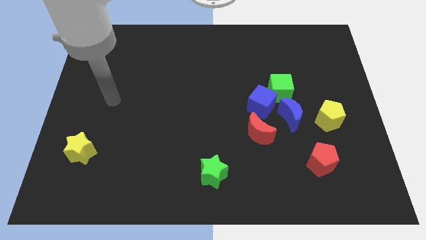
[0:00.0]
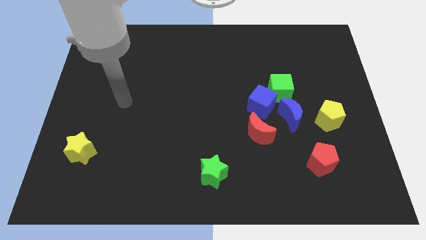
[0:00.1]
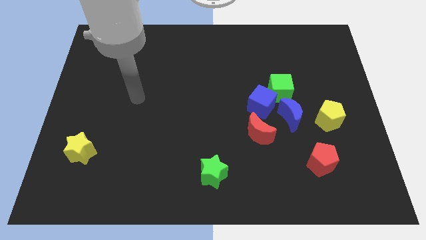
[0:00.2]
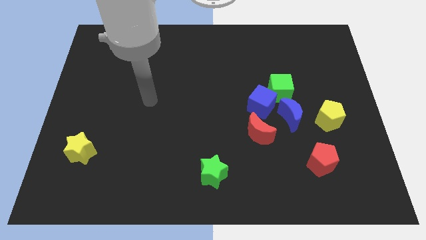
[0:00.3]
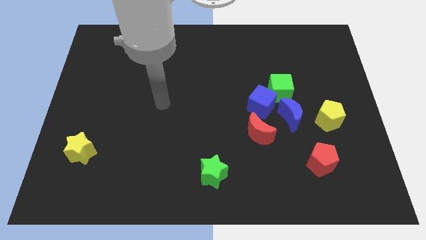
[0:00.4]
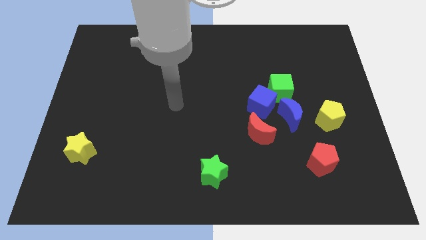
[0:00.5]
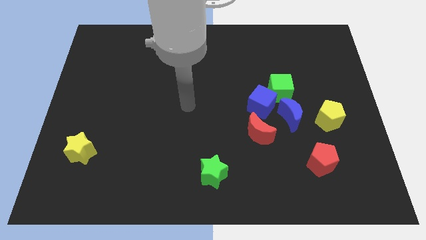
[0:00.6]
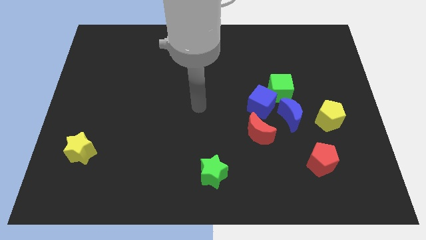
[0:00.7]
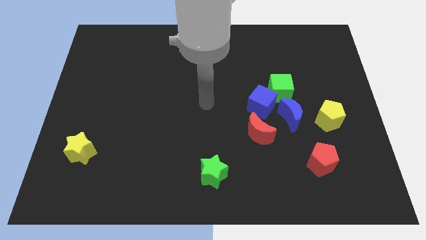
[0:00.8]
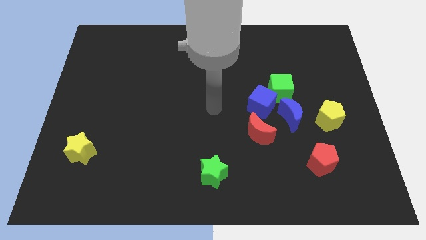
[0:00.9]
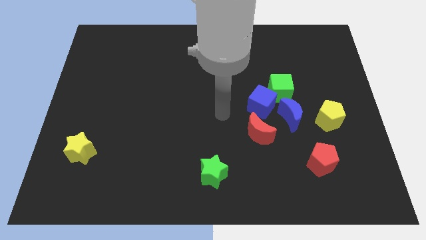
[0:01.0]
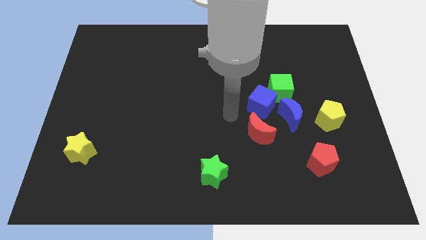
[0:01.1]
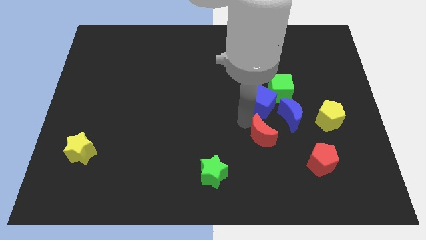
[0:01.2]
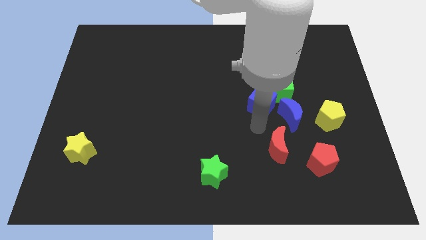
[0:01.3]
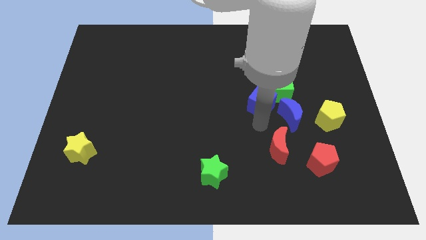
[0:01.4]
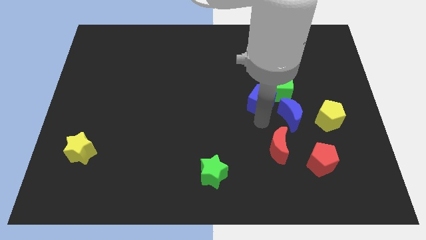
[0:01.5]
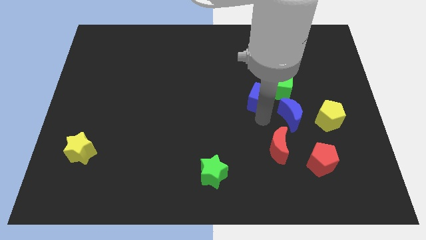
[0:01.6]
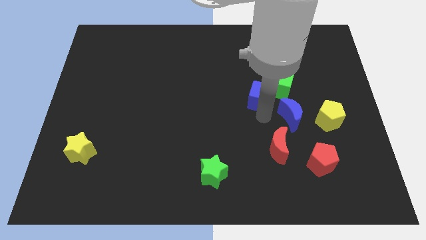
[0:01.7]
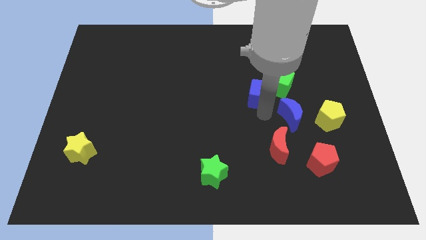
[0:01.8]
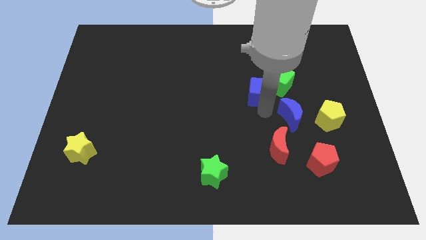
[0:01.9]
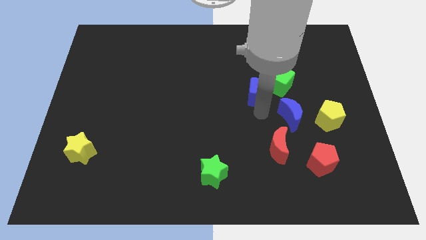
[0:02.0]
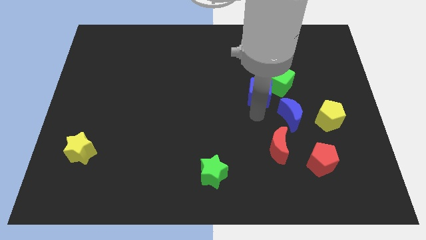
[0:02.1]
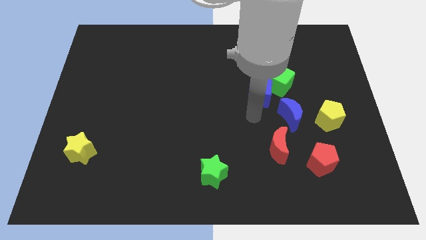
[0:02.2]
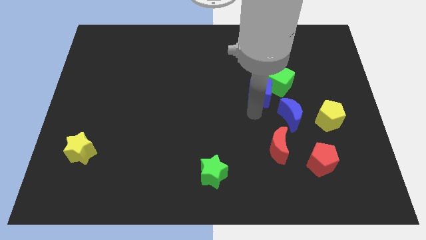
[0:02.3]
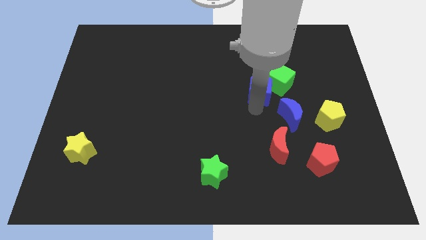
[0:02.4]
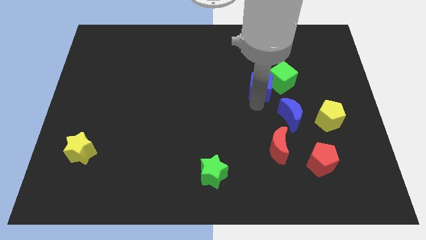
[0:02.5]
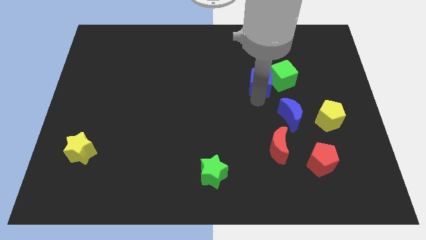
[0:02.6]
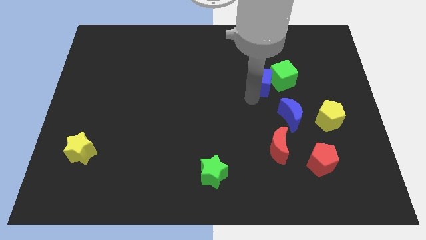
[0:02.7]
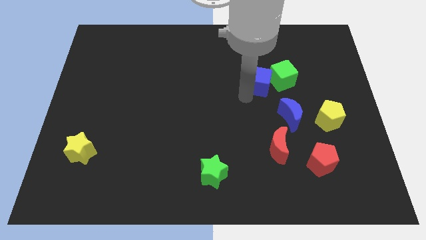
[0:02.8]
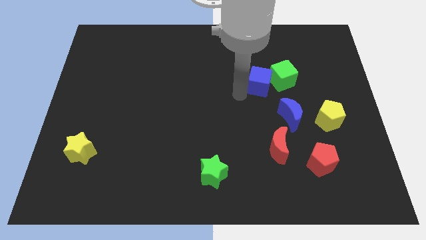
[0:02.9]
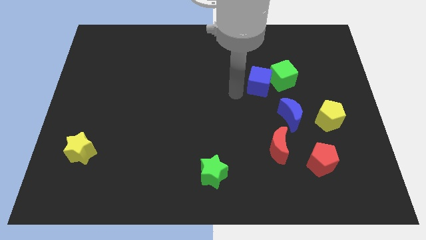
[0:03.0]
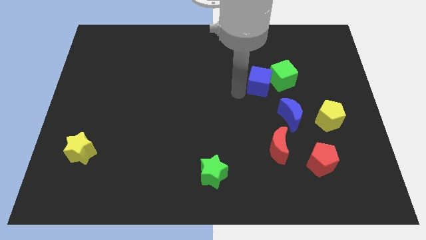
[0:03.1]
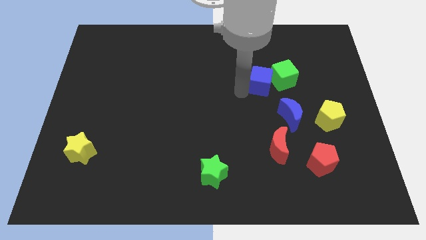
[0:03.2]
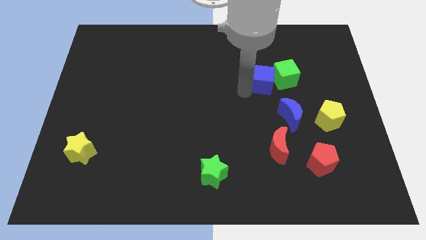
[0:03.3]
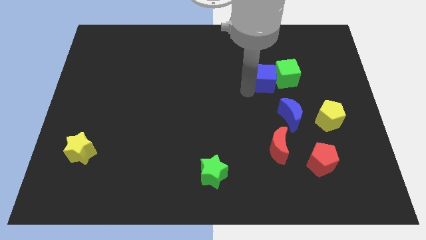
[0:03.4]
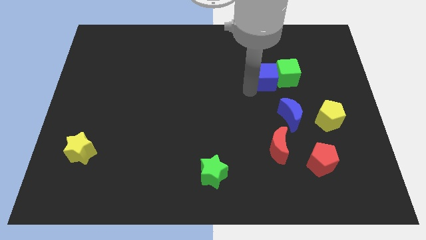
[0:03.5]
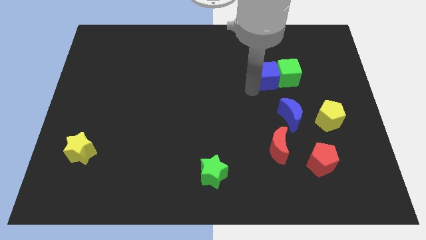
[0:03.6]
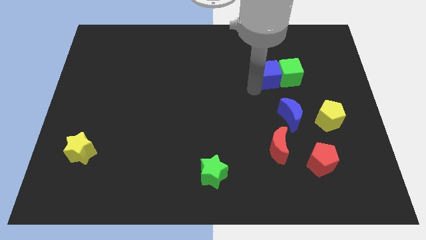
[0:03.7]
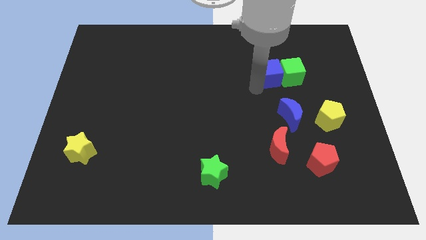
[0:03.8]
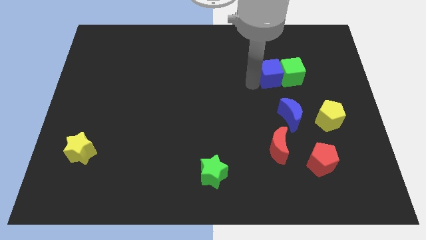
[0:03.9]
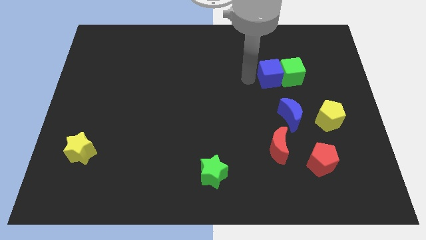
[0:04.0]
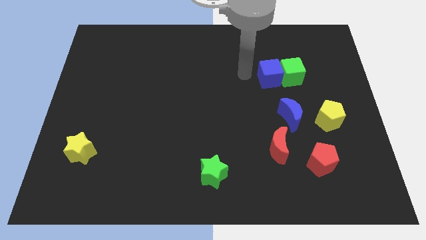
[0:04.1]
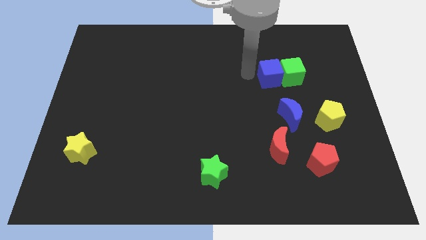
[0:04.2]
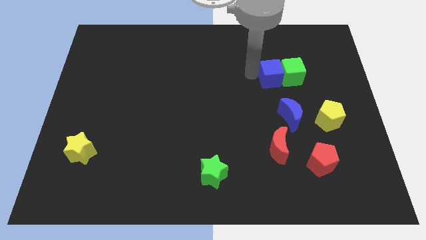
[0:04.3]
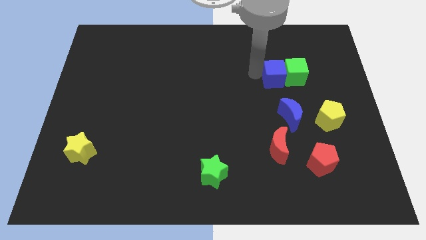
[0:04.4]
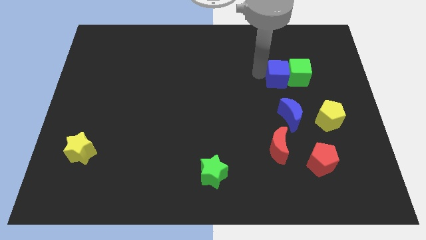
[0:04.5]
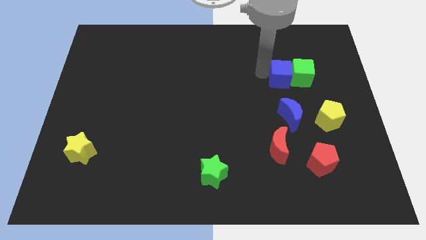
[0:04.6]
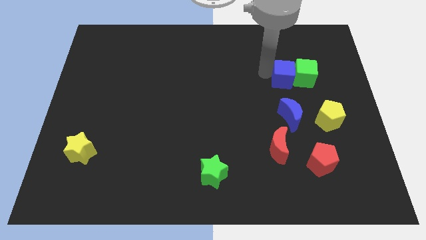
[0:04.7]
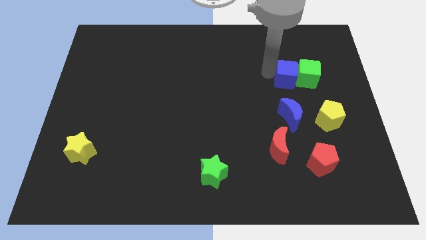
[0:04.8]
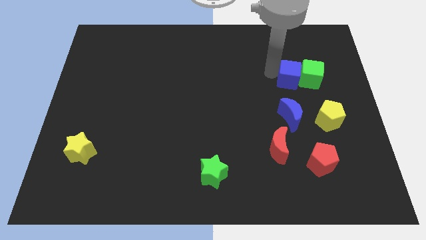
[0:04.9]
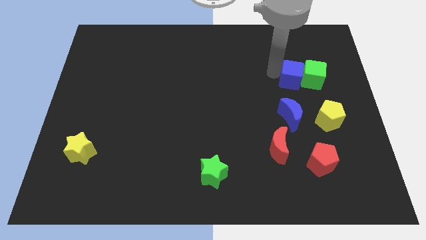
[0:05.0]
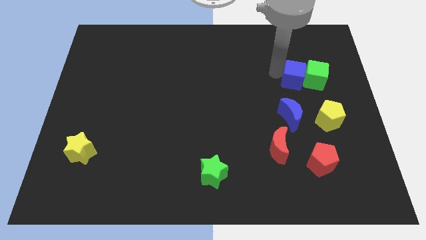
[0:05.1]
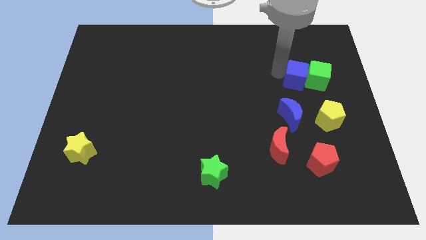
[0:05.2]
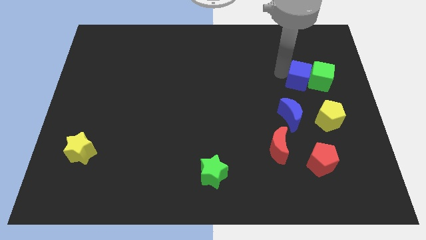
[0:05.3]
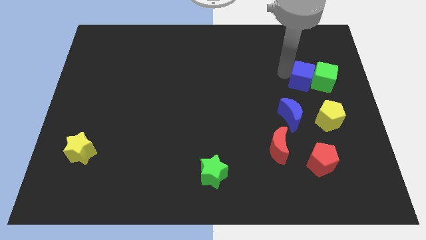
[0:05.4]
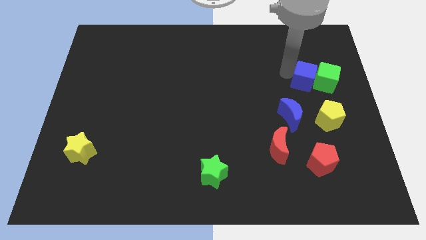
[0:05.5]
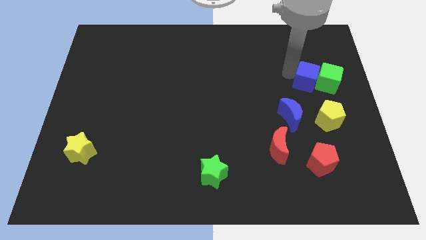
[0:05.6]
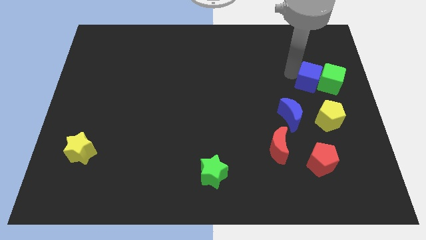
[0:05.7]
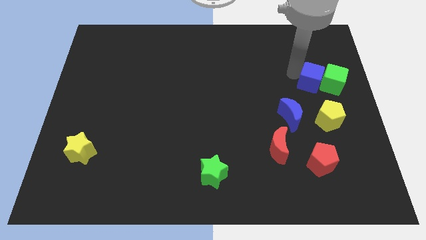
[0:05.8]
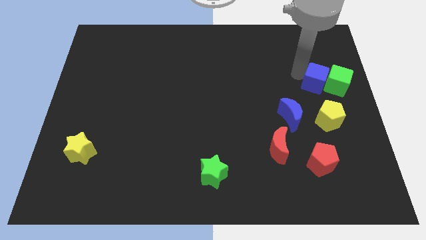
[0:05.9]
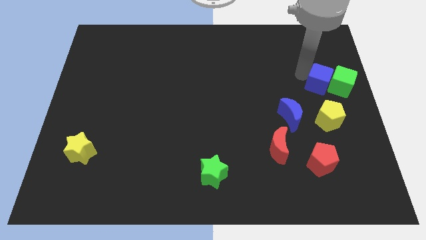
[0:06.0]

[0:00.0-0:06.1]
put the blue cube to the right side of the board

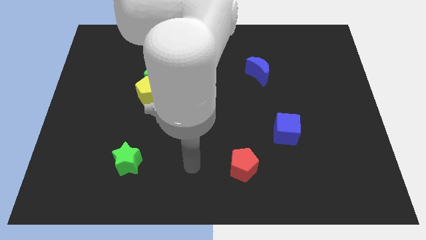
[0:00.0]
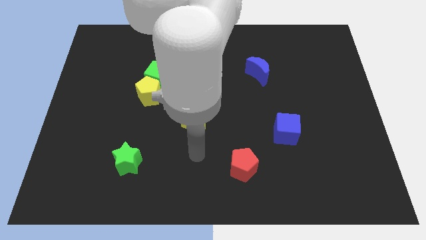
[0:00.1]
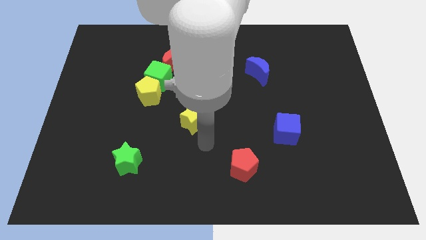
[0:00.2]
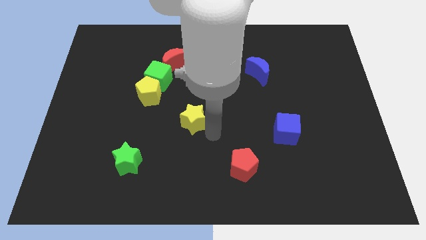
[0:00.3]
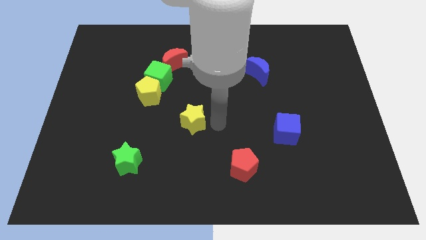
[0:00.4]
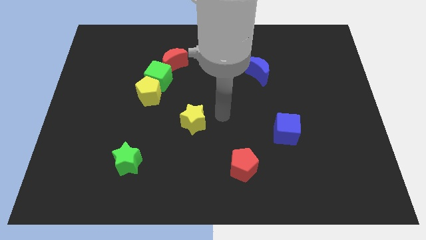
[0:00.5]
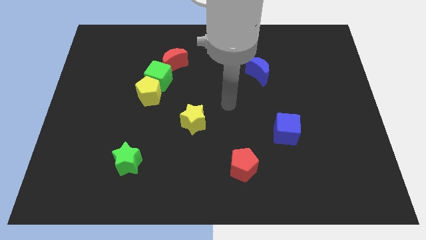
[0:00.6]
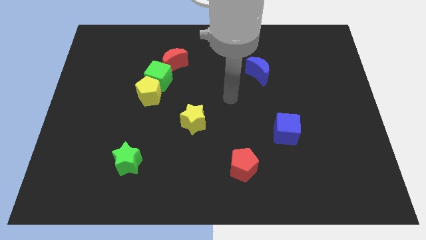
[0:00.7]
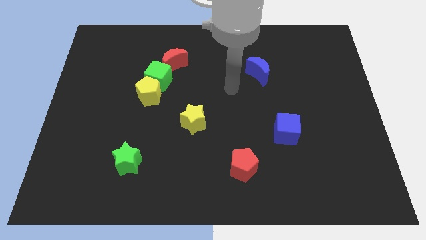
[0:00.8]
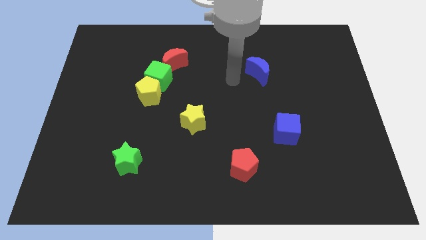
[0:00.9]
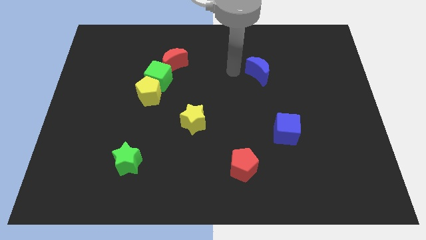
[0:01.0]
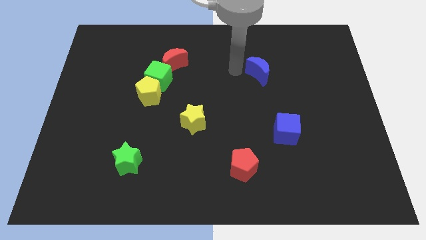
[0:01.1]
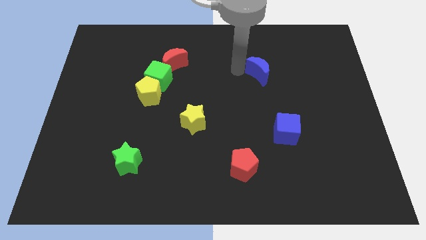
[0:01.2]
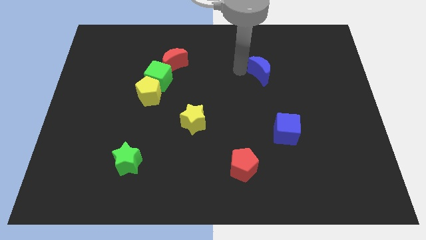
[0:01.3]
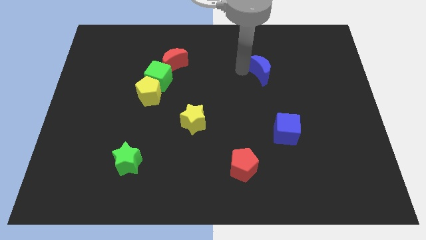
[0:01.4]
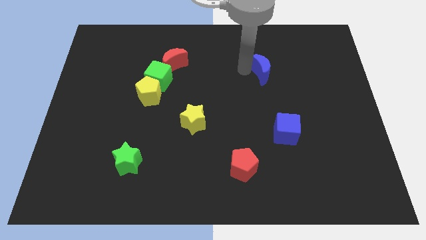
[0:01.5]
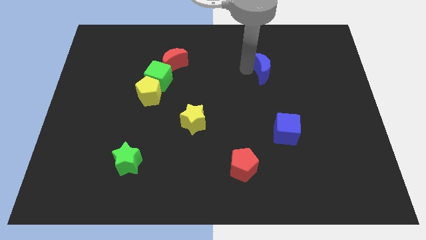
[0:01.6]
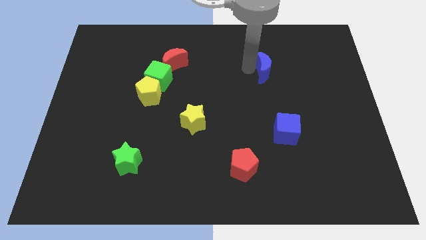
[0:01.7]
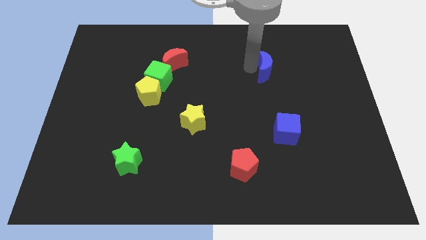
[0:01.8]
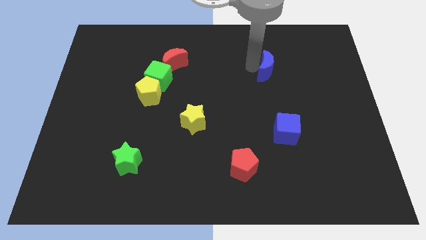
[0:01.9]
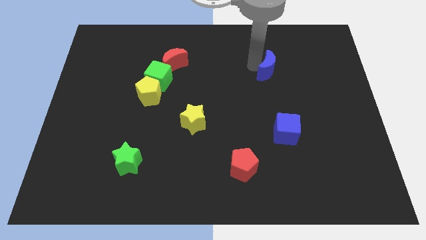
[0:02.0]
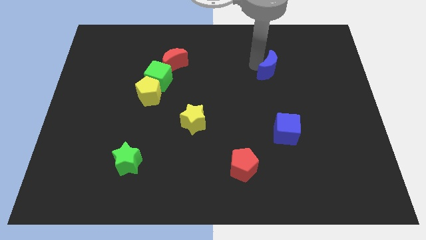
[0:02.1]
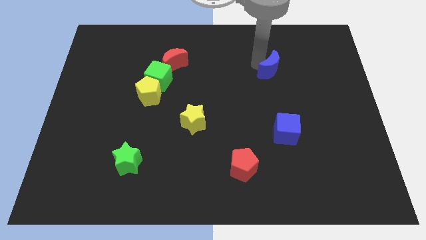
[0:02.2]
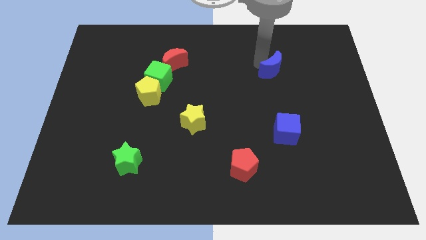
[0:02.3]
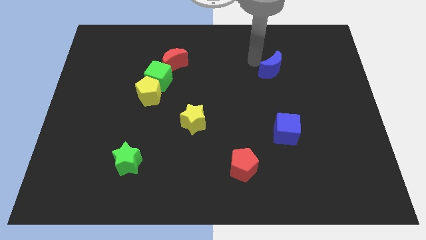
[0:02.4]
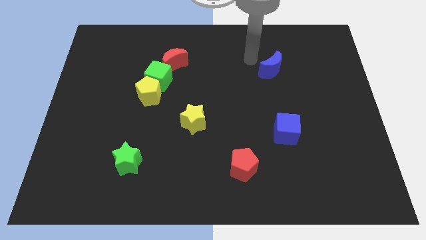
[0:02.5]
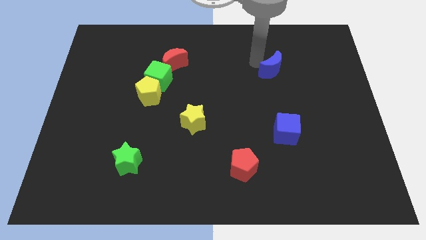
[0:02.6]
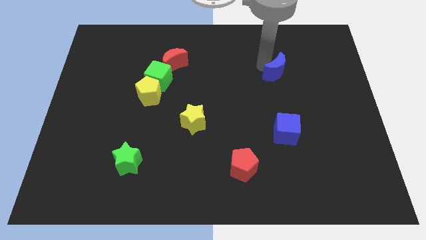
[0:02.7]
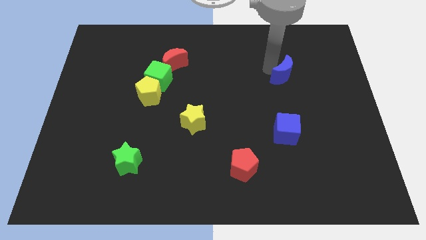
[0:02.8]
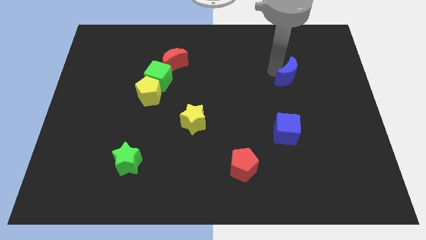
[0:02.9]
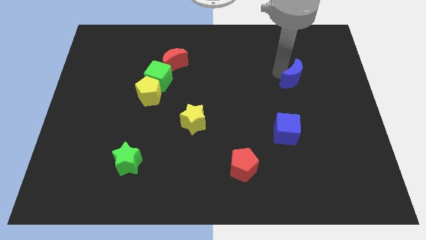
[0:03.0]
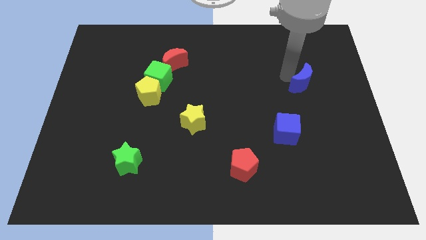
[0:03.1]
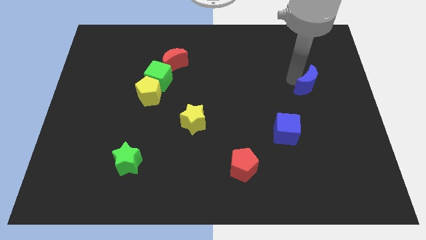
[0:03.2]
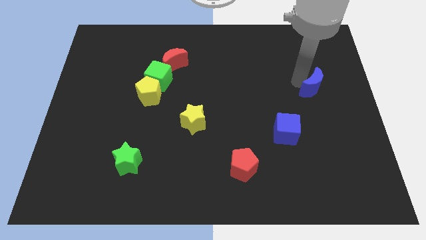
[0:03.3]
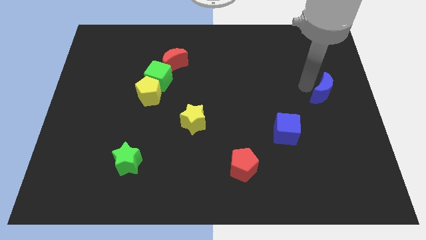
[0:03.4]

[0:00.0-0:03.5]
push the blue moon to the center right
